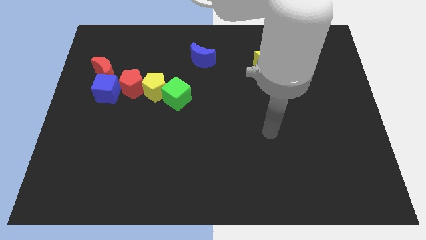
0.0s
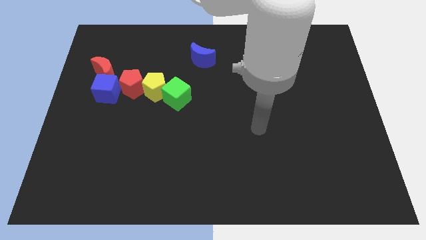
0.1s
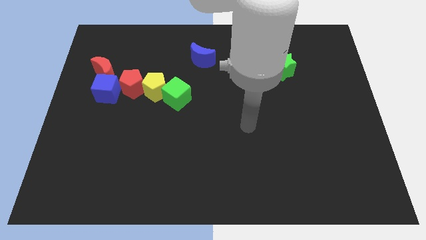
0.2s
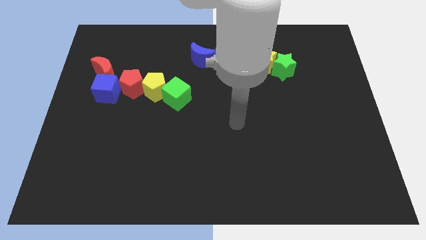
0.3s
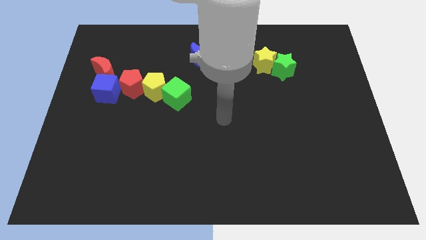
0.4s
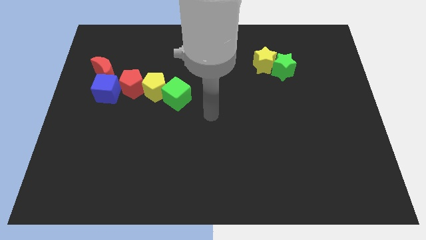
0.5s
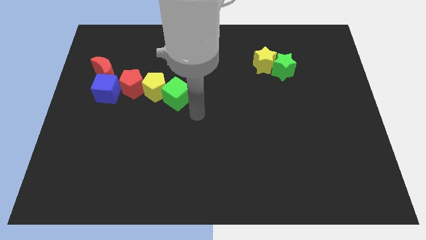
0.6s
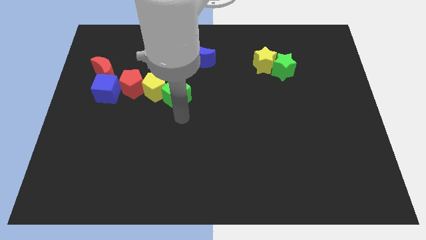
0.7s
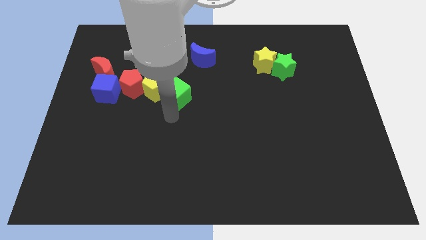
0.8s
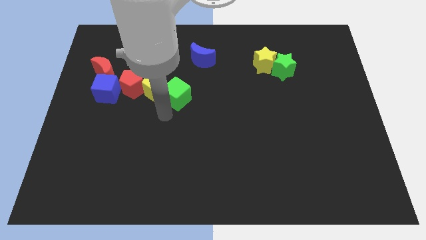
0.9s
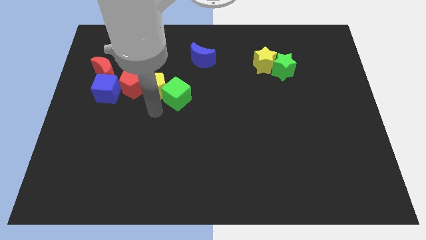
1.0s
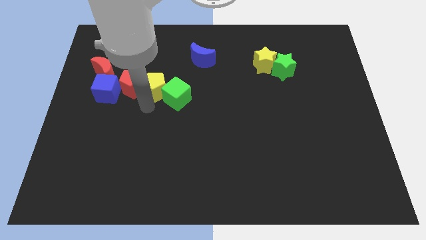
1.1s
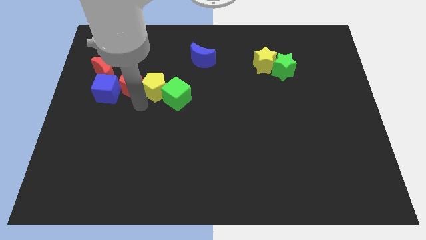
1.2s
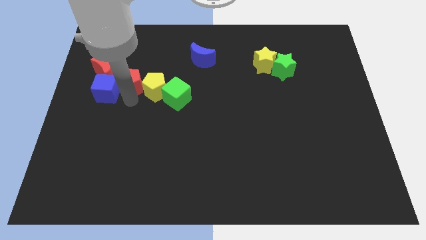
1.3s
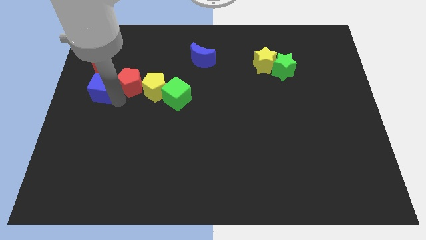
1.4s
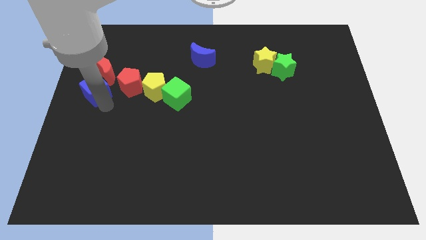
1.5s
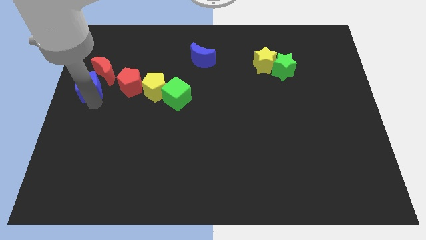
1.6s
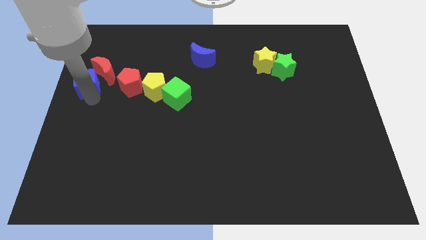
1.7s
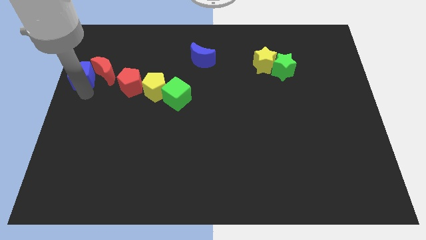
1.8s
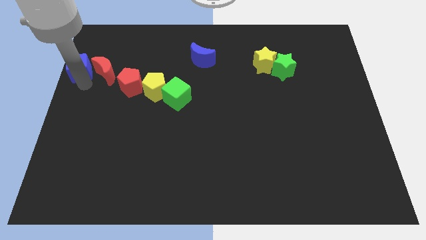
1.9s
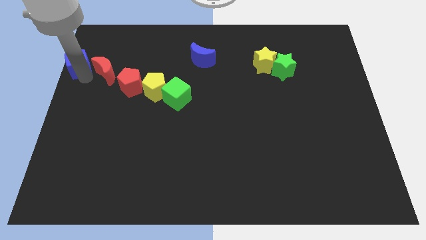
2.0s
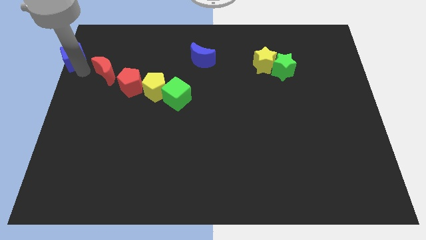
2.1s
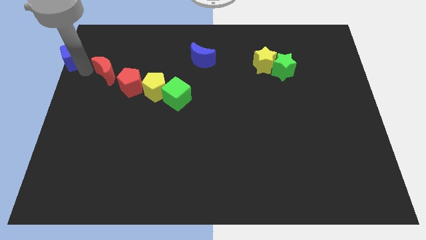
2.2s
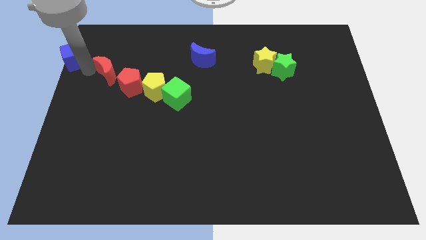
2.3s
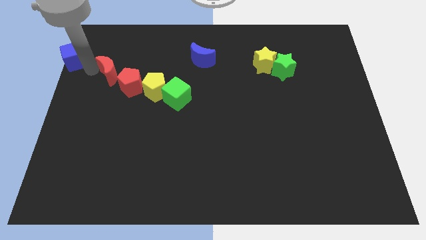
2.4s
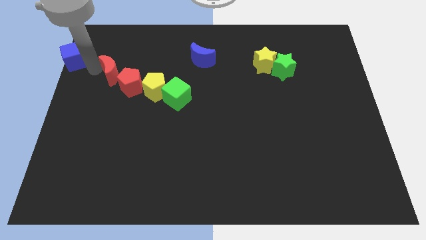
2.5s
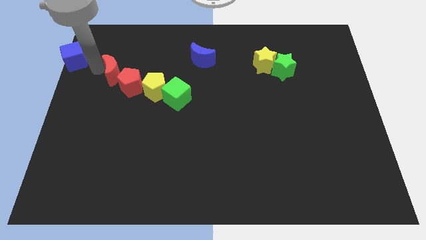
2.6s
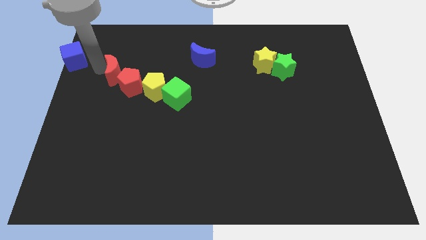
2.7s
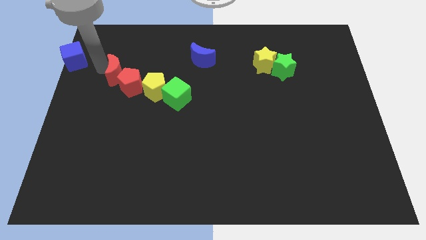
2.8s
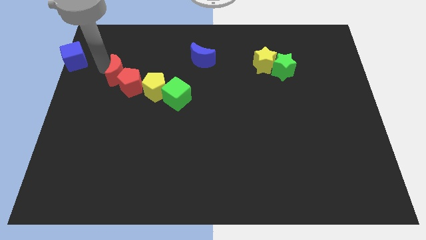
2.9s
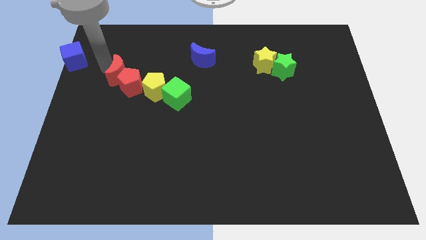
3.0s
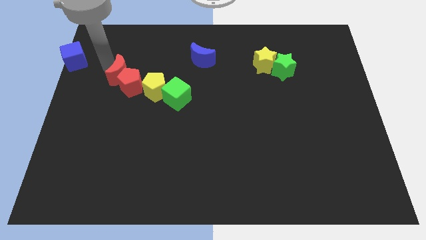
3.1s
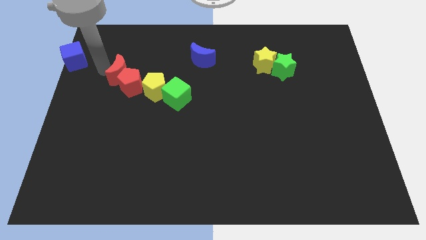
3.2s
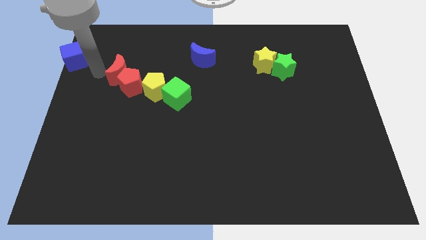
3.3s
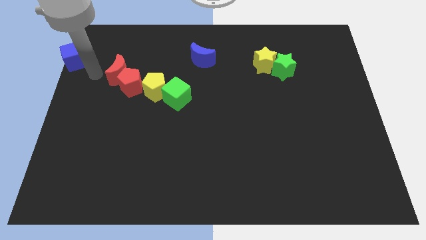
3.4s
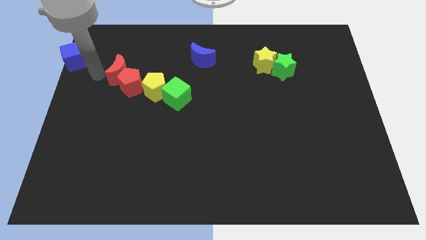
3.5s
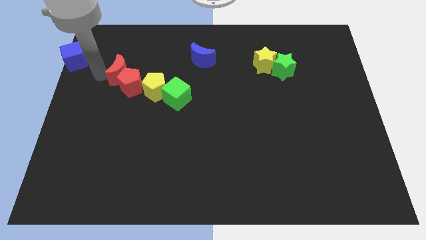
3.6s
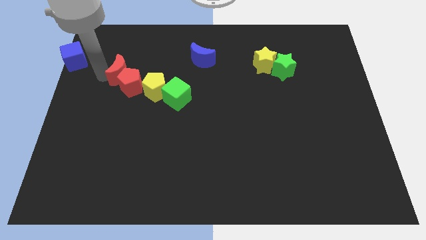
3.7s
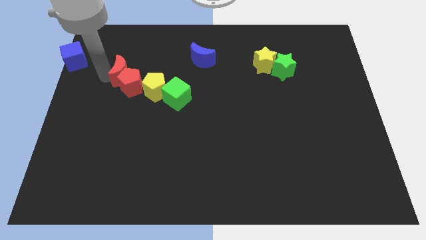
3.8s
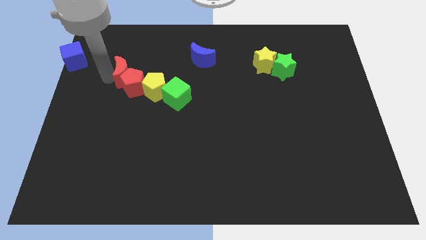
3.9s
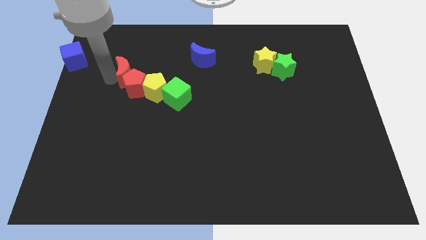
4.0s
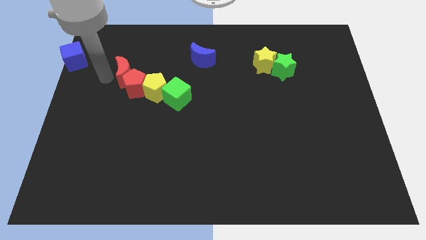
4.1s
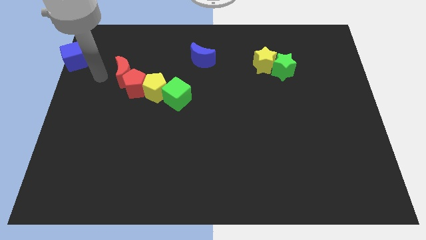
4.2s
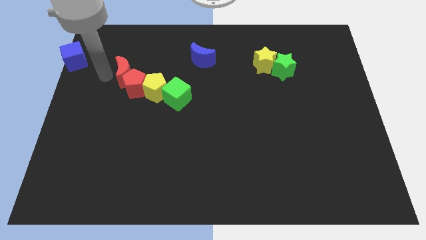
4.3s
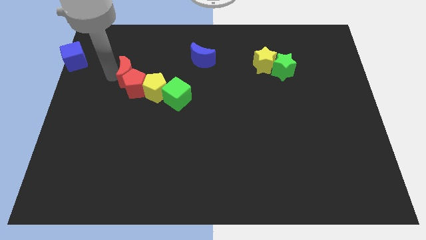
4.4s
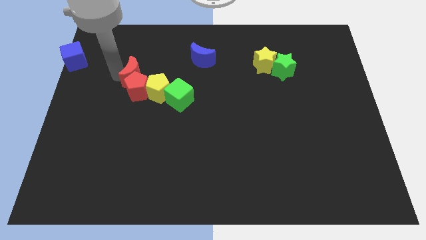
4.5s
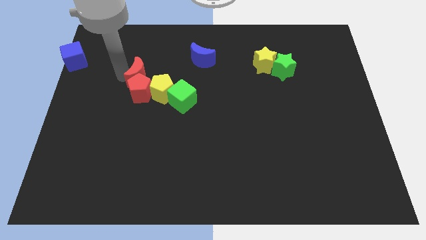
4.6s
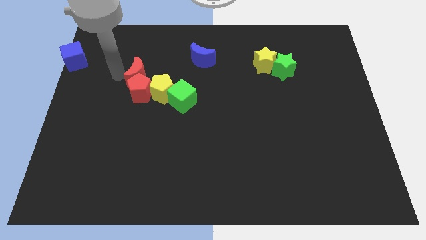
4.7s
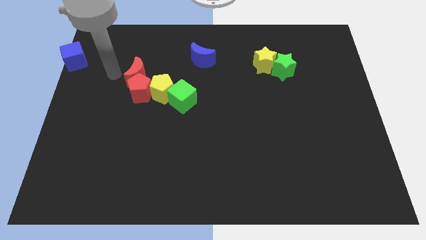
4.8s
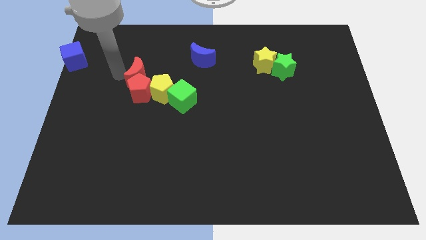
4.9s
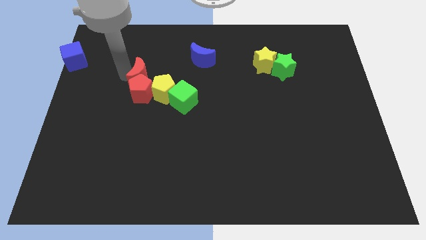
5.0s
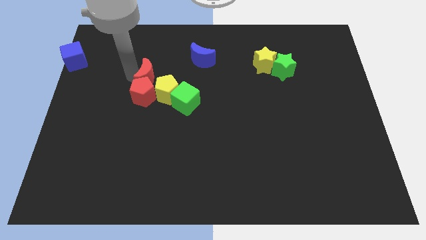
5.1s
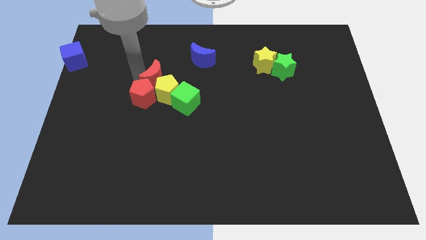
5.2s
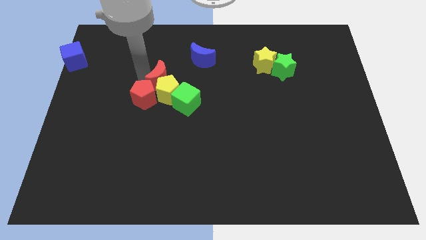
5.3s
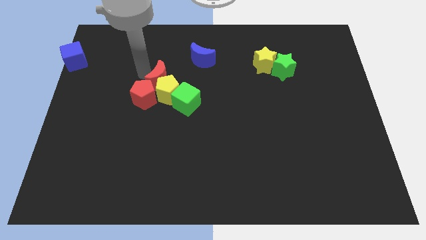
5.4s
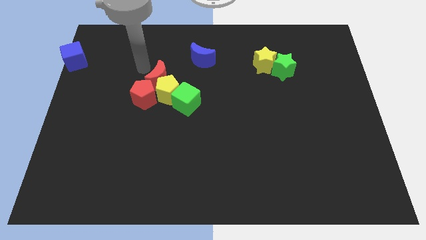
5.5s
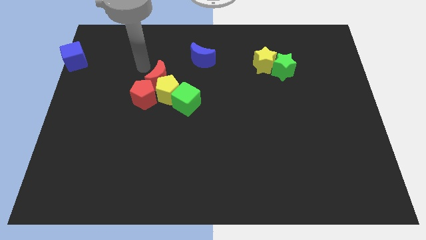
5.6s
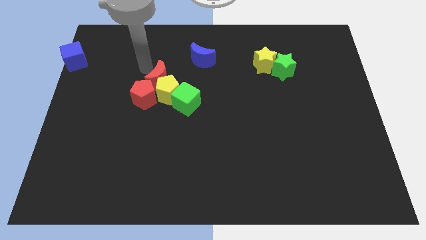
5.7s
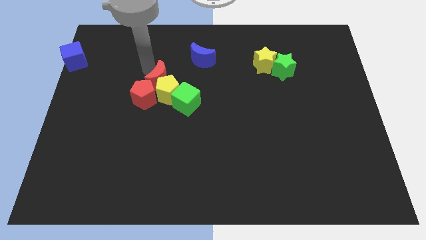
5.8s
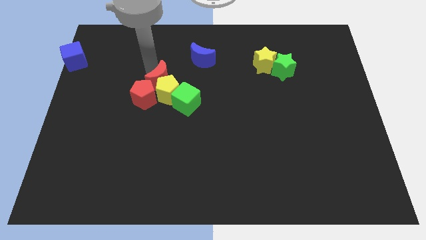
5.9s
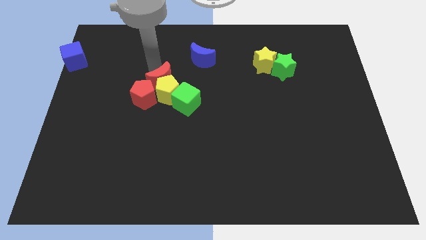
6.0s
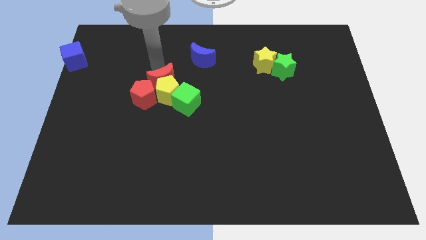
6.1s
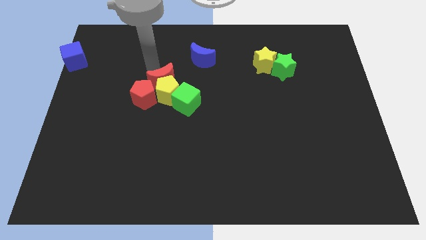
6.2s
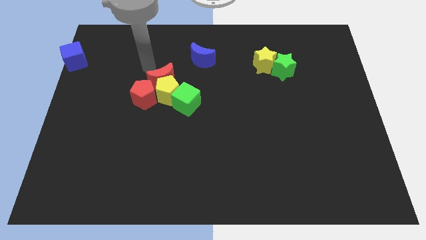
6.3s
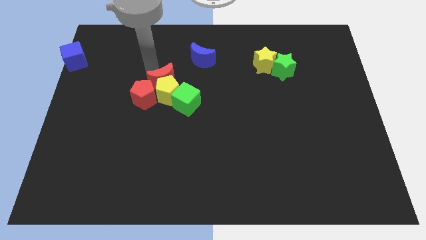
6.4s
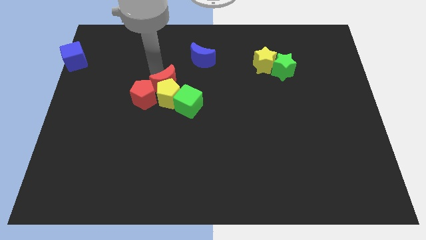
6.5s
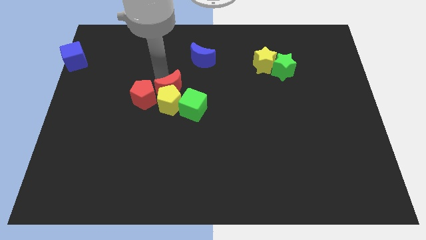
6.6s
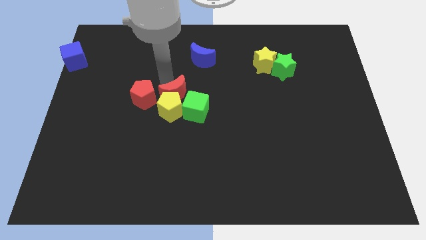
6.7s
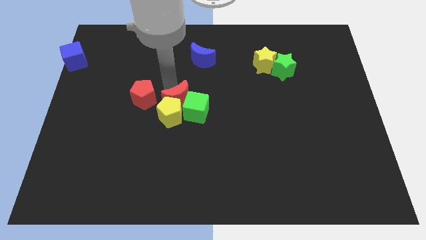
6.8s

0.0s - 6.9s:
push the red moon close to the green cube
